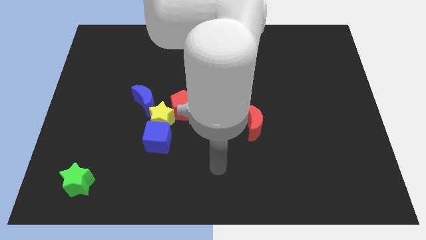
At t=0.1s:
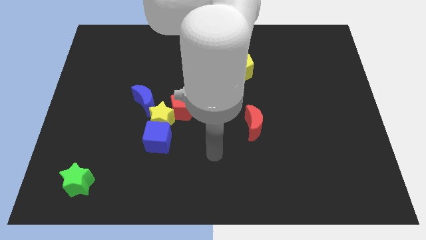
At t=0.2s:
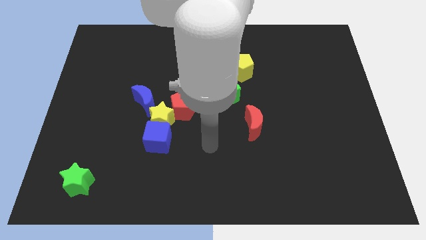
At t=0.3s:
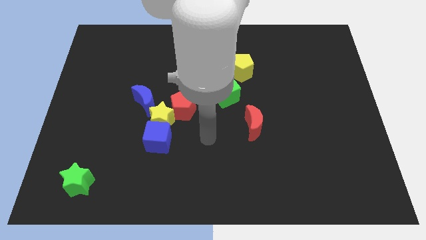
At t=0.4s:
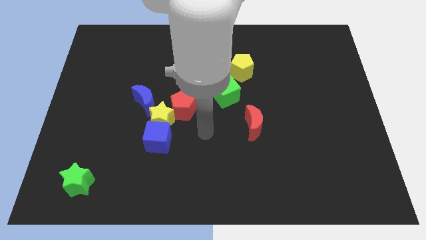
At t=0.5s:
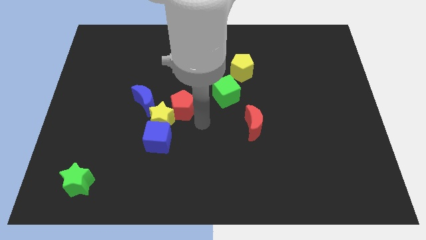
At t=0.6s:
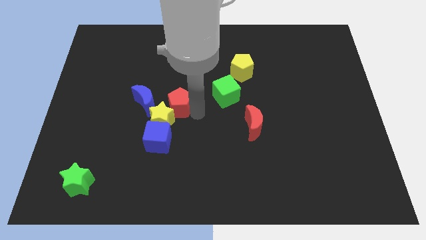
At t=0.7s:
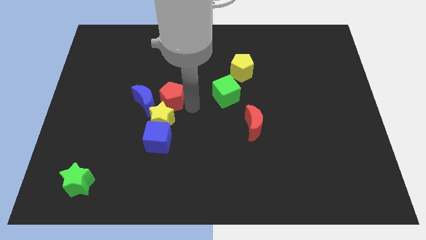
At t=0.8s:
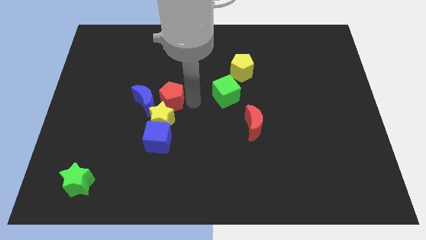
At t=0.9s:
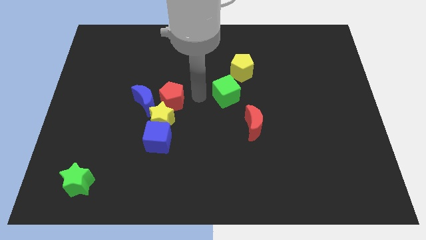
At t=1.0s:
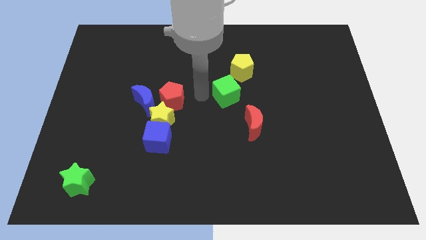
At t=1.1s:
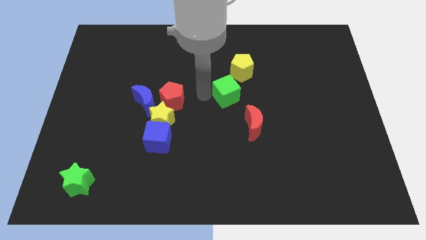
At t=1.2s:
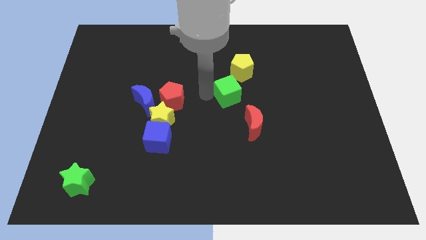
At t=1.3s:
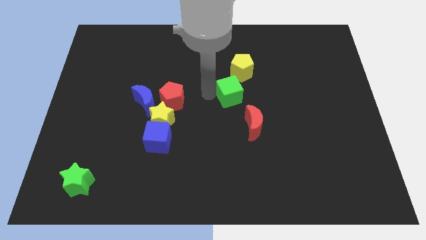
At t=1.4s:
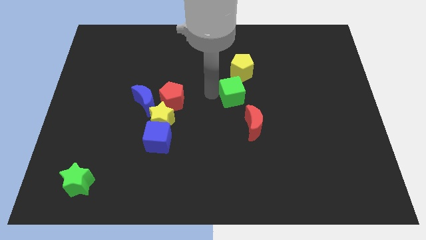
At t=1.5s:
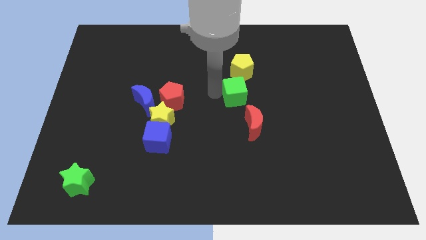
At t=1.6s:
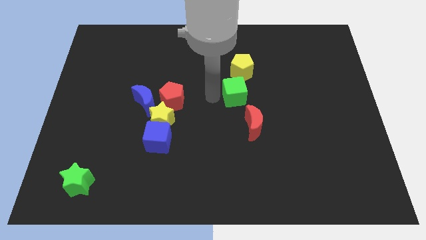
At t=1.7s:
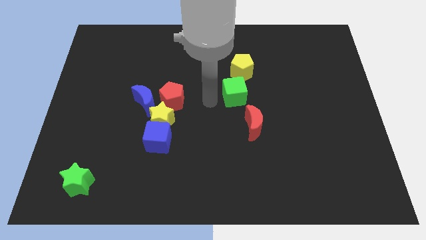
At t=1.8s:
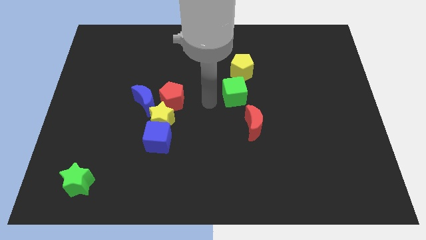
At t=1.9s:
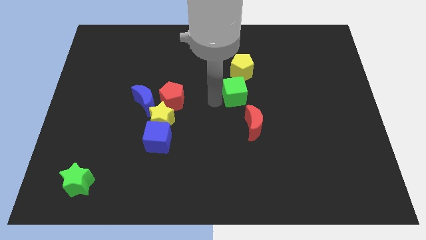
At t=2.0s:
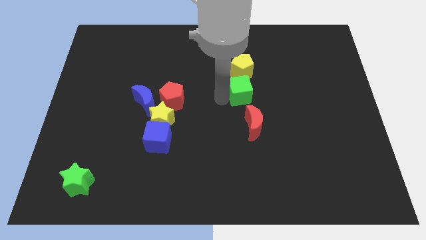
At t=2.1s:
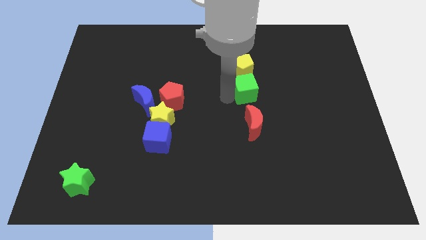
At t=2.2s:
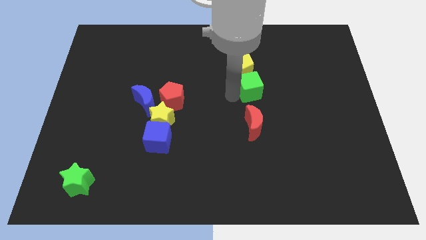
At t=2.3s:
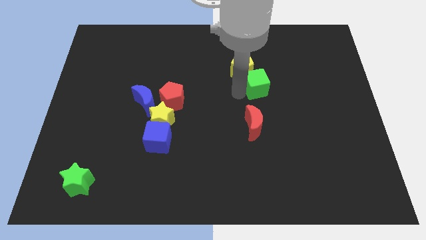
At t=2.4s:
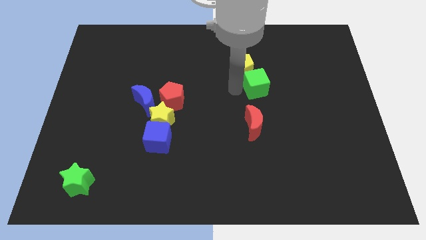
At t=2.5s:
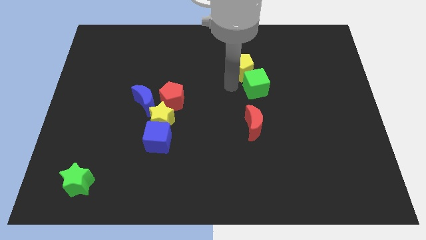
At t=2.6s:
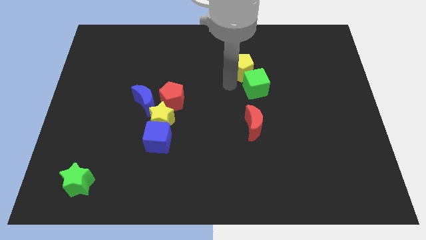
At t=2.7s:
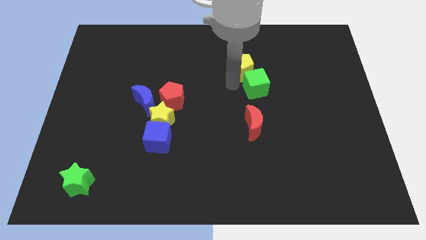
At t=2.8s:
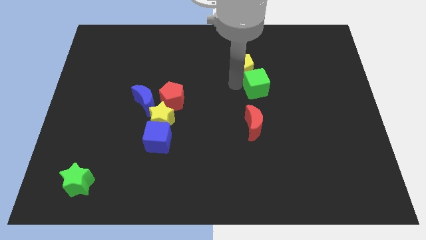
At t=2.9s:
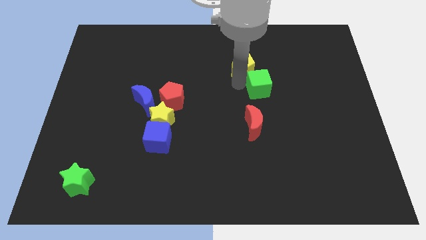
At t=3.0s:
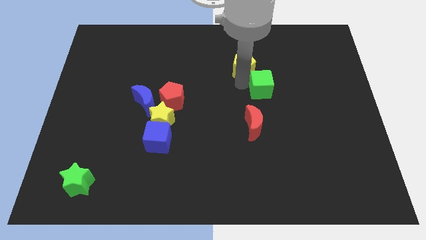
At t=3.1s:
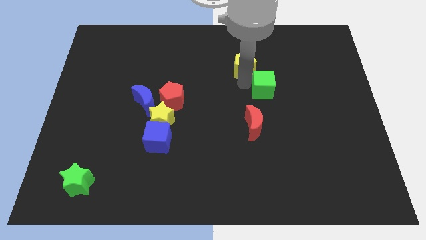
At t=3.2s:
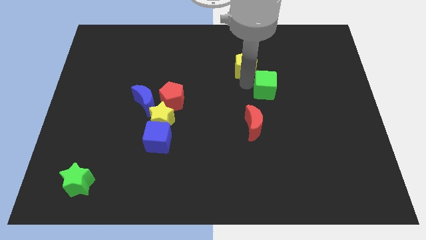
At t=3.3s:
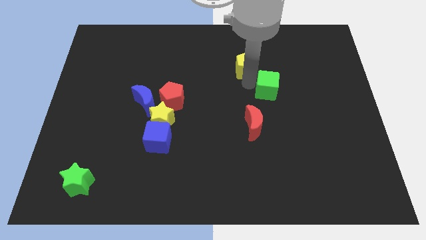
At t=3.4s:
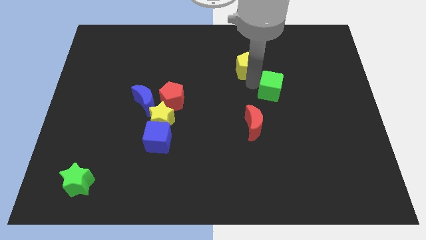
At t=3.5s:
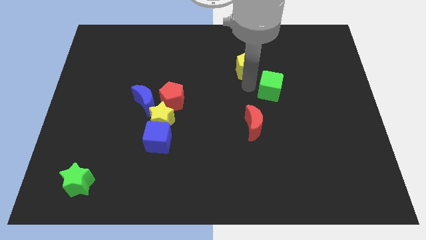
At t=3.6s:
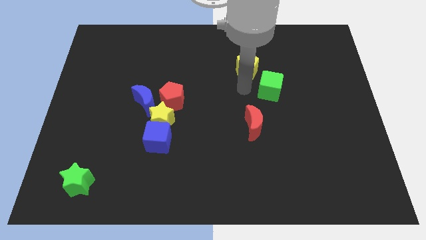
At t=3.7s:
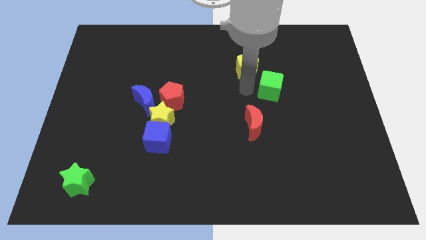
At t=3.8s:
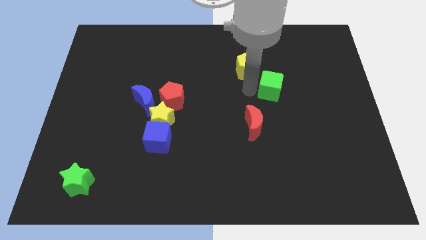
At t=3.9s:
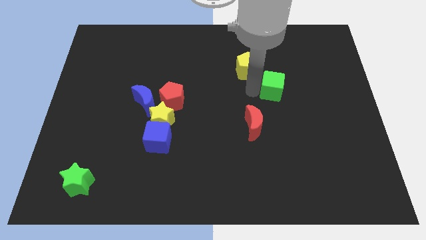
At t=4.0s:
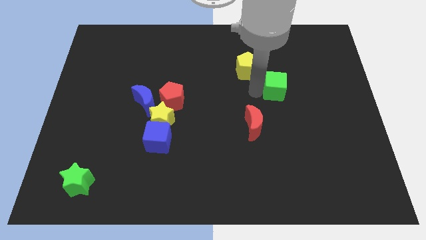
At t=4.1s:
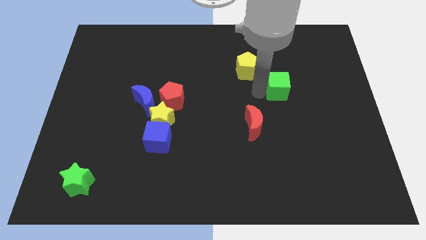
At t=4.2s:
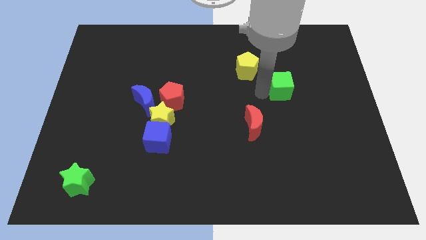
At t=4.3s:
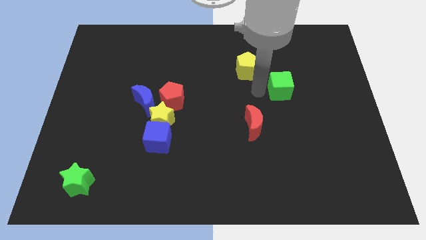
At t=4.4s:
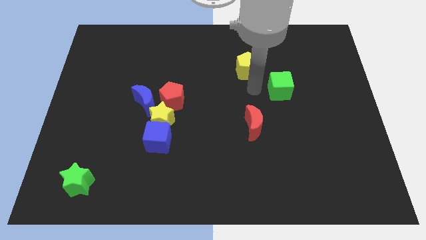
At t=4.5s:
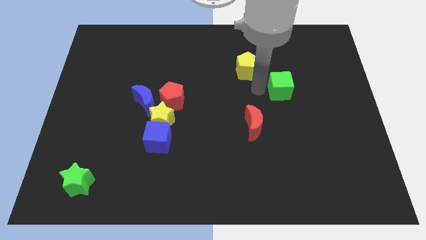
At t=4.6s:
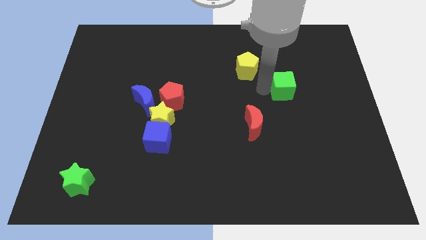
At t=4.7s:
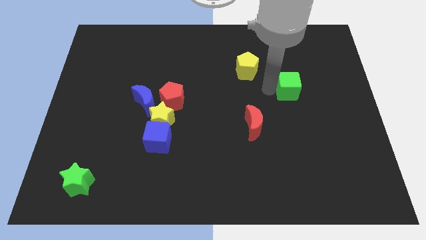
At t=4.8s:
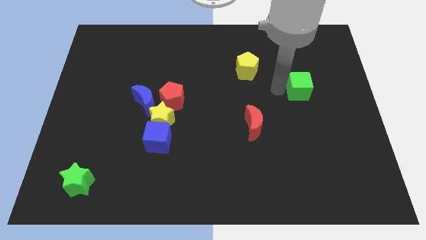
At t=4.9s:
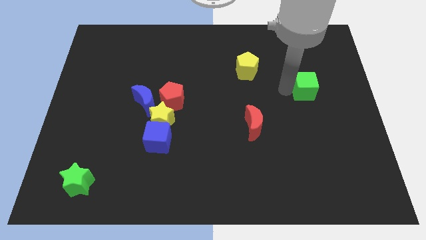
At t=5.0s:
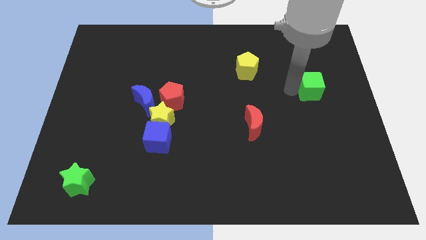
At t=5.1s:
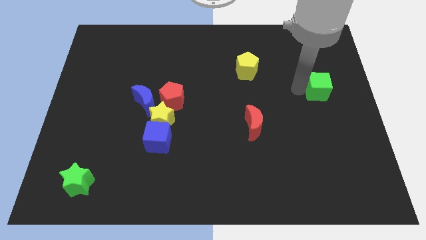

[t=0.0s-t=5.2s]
push the green cube to the right side

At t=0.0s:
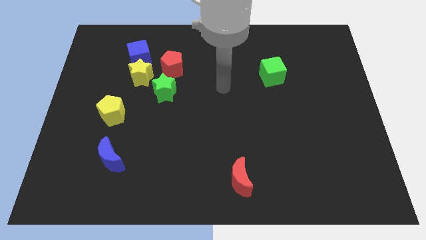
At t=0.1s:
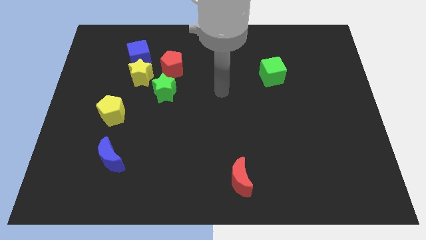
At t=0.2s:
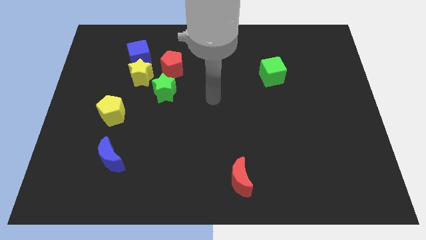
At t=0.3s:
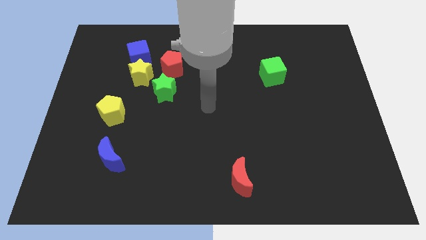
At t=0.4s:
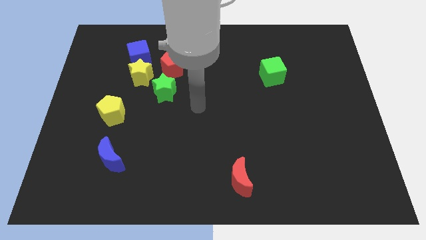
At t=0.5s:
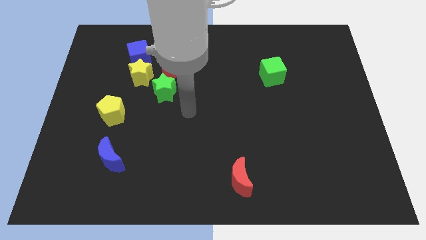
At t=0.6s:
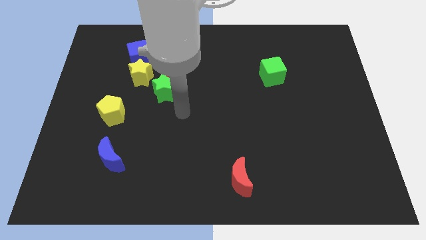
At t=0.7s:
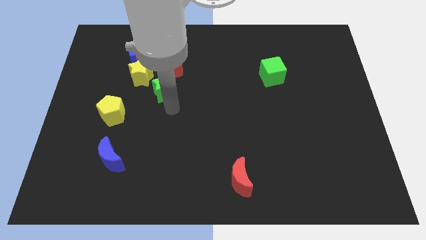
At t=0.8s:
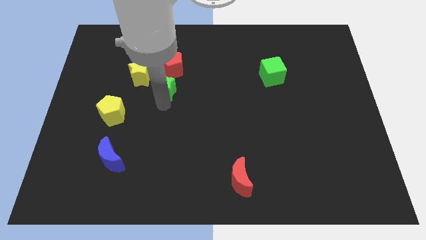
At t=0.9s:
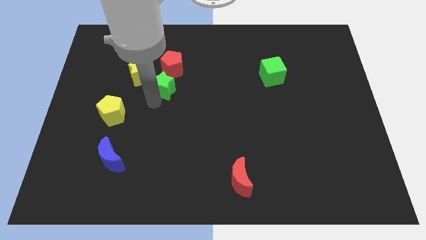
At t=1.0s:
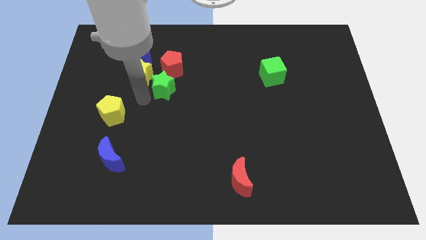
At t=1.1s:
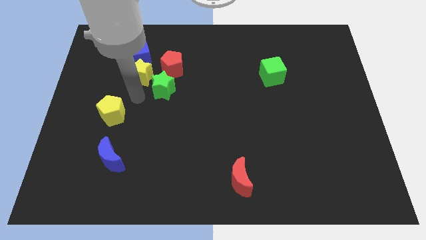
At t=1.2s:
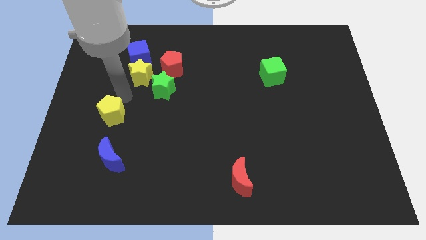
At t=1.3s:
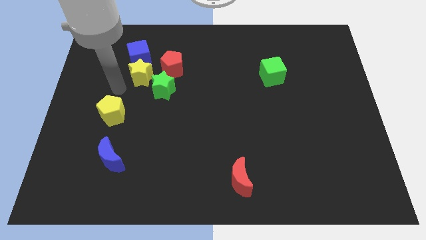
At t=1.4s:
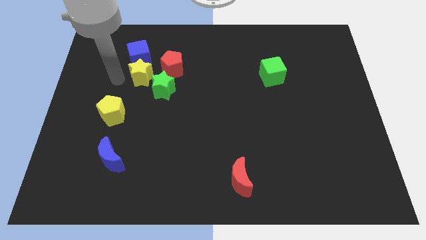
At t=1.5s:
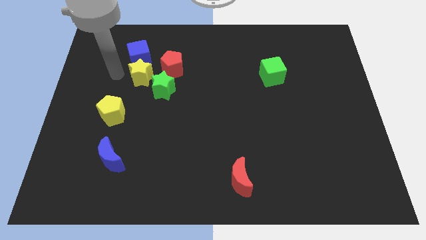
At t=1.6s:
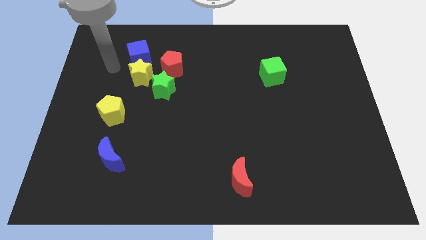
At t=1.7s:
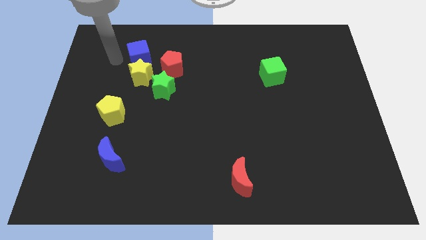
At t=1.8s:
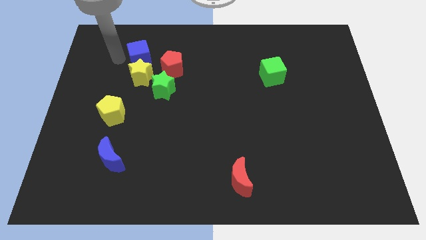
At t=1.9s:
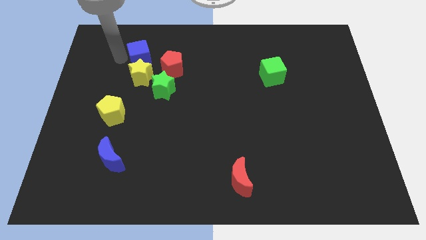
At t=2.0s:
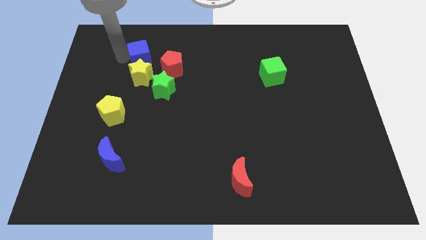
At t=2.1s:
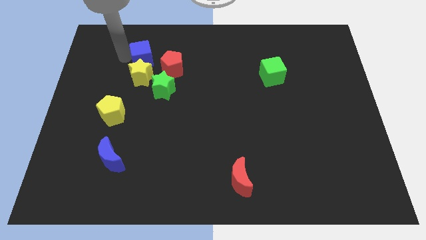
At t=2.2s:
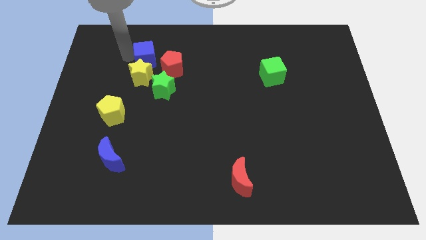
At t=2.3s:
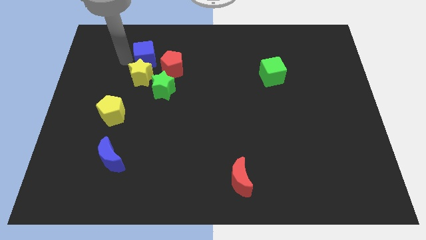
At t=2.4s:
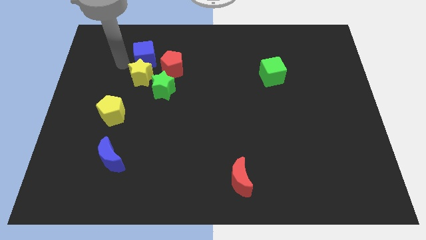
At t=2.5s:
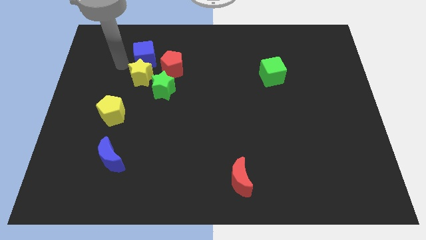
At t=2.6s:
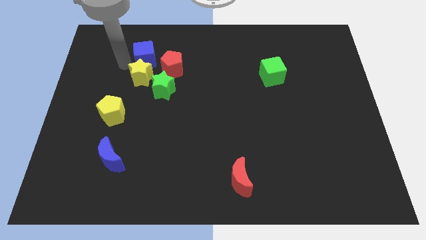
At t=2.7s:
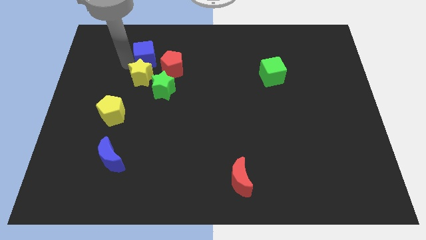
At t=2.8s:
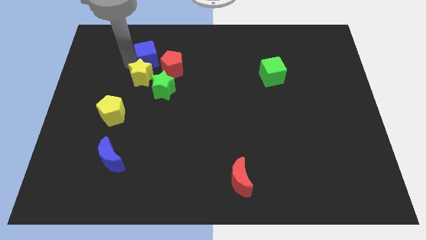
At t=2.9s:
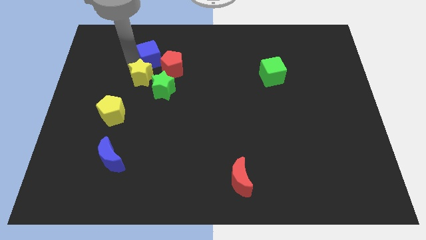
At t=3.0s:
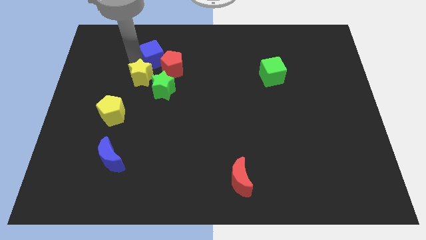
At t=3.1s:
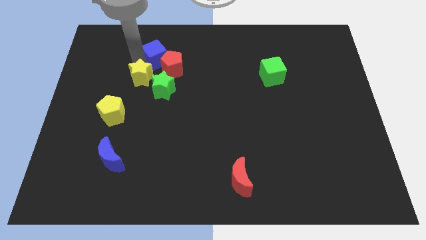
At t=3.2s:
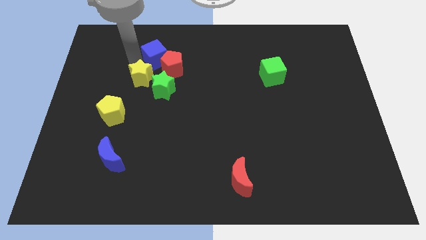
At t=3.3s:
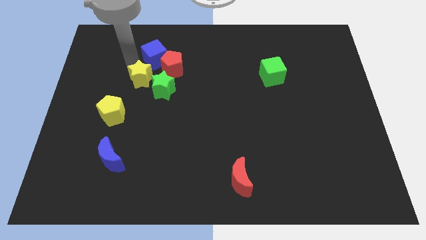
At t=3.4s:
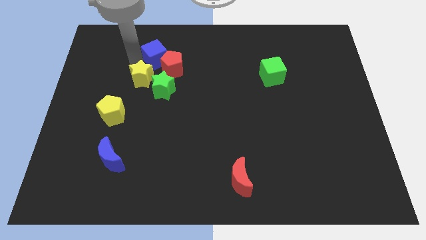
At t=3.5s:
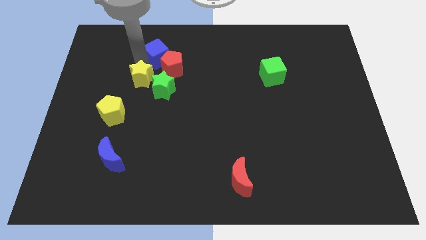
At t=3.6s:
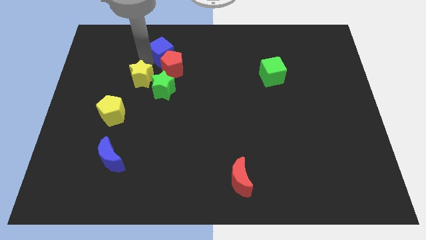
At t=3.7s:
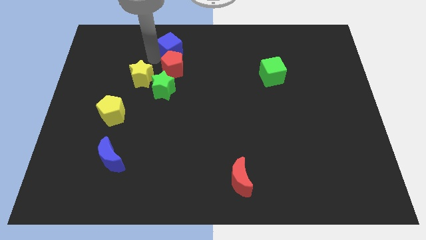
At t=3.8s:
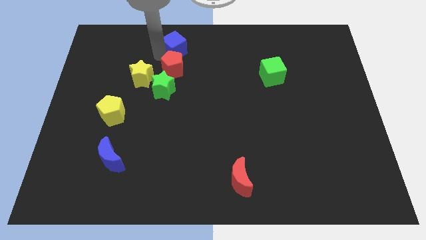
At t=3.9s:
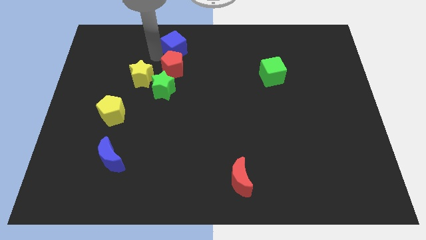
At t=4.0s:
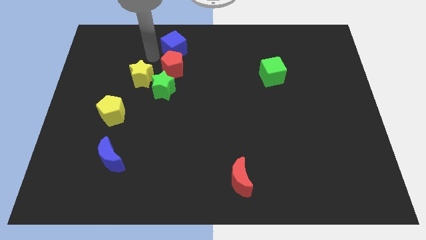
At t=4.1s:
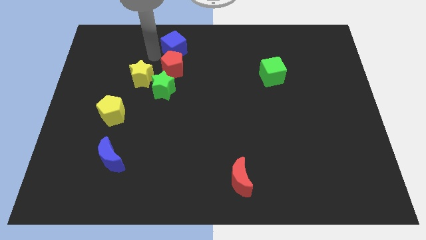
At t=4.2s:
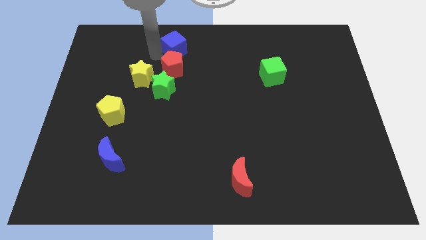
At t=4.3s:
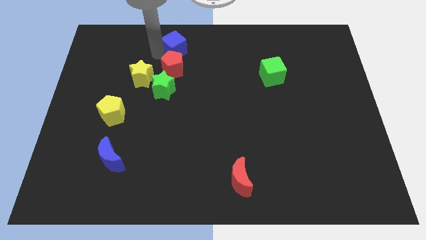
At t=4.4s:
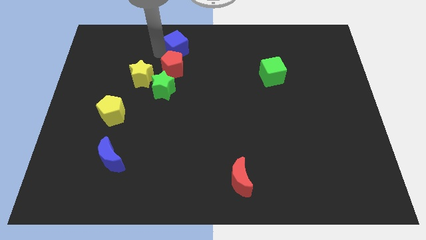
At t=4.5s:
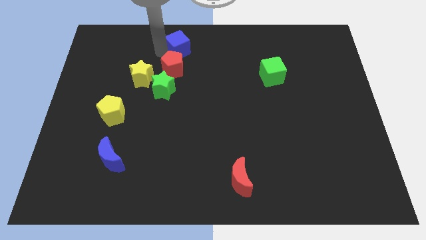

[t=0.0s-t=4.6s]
slide the blue cube to the top side
